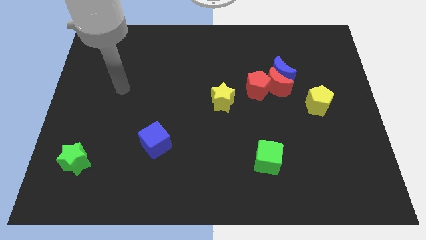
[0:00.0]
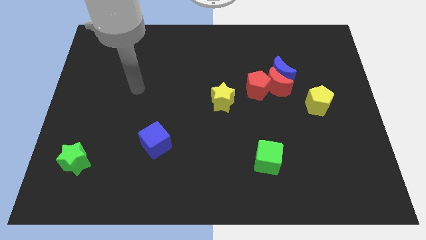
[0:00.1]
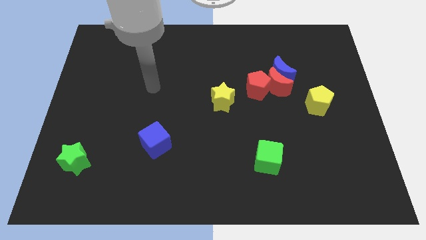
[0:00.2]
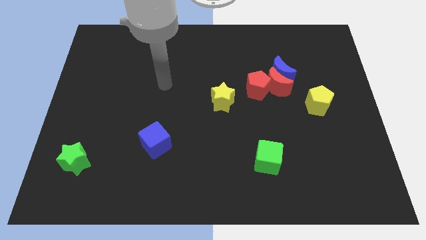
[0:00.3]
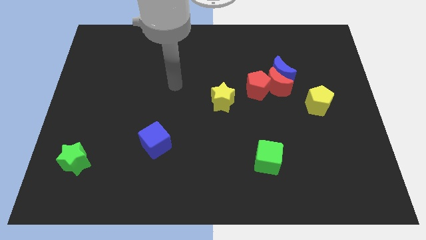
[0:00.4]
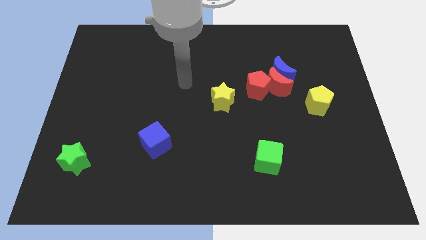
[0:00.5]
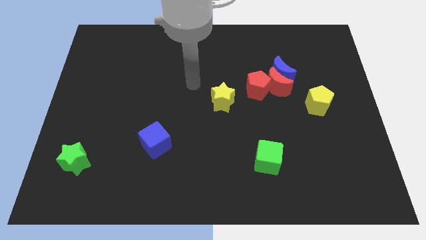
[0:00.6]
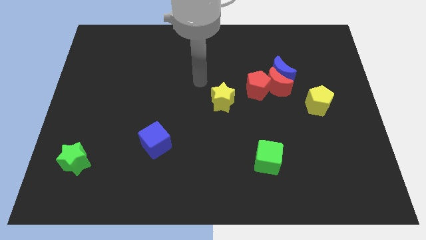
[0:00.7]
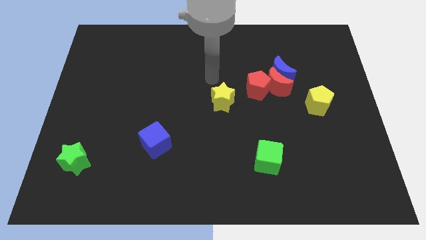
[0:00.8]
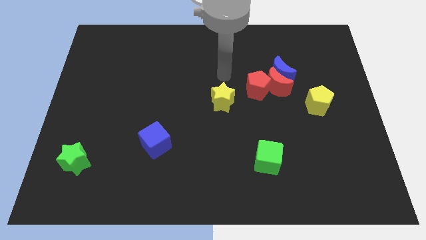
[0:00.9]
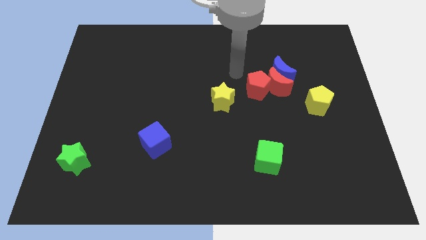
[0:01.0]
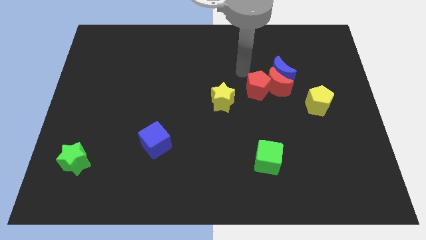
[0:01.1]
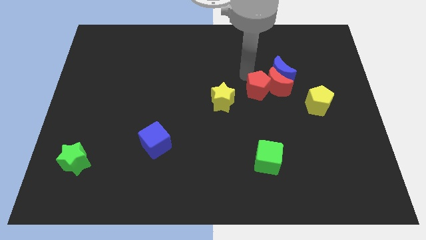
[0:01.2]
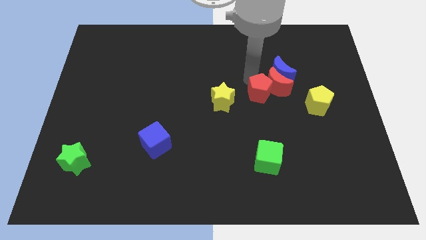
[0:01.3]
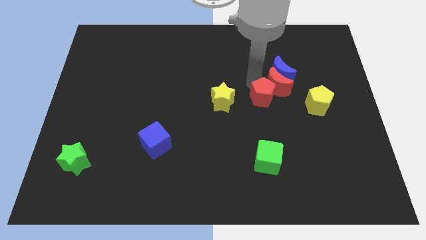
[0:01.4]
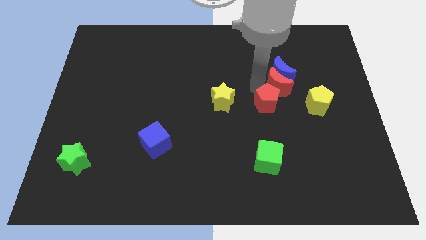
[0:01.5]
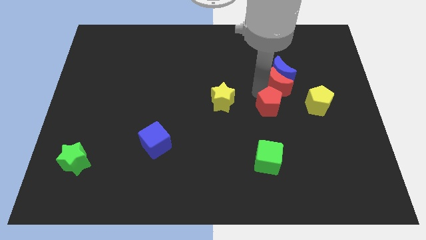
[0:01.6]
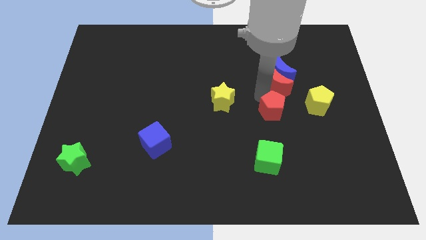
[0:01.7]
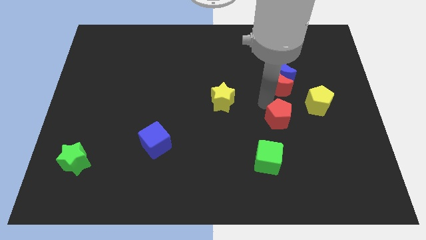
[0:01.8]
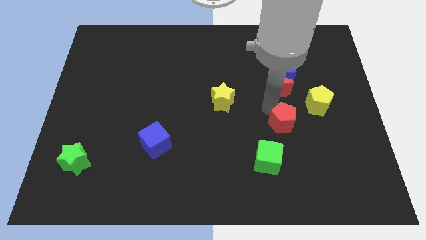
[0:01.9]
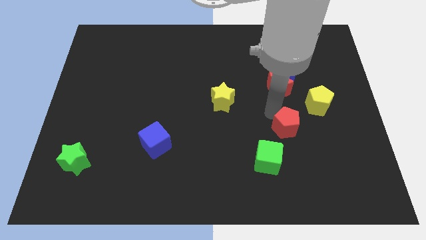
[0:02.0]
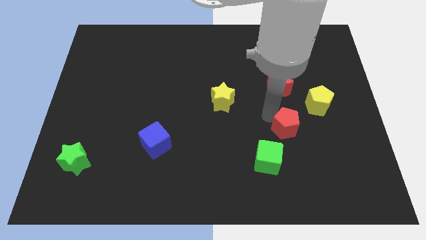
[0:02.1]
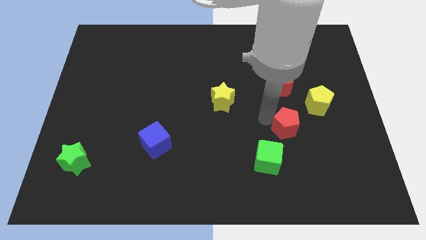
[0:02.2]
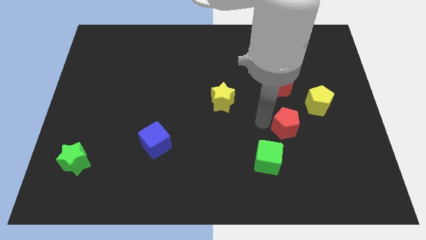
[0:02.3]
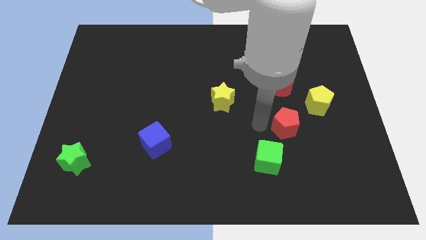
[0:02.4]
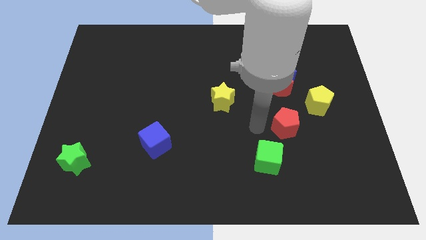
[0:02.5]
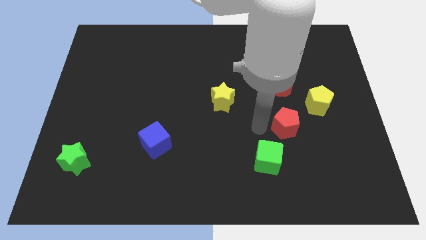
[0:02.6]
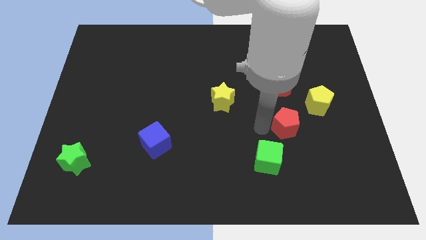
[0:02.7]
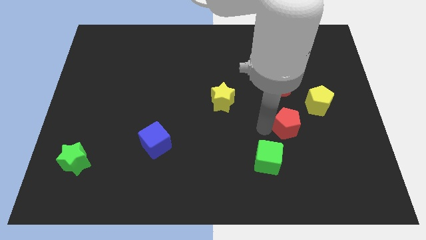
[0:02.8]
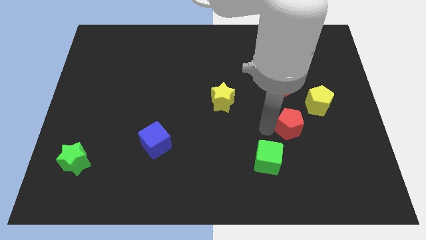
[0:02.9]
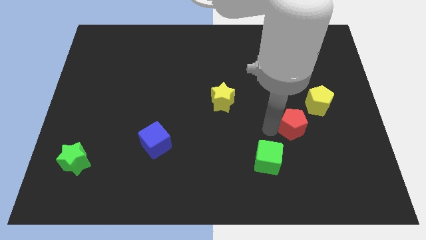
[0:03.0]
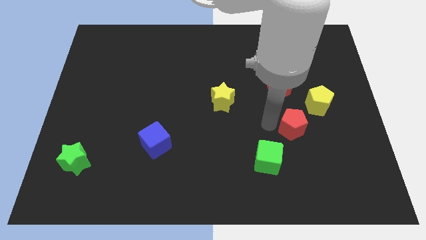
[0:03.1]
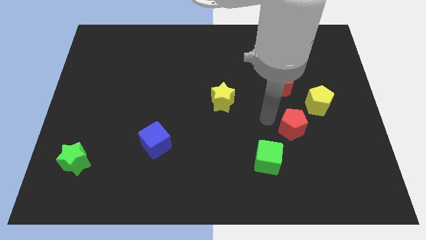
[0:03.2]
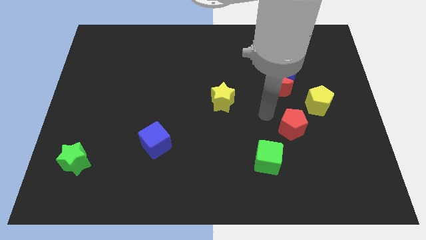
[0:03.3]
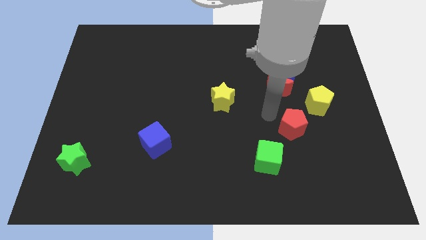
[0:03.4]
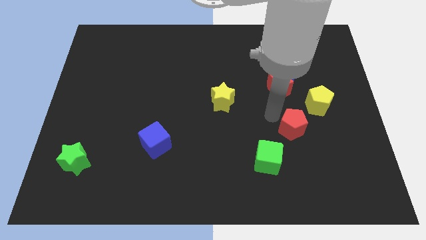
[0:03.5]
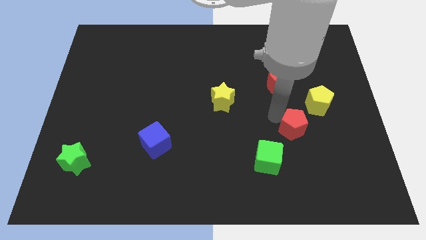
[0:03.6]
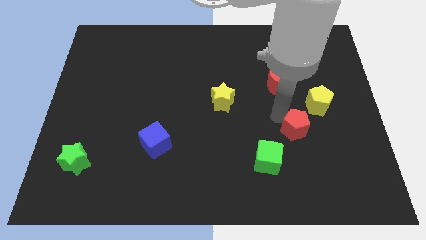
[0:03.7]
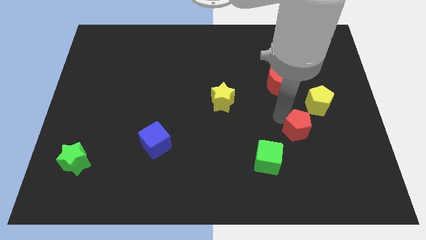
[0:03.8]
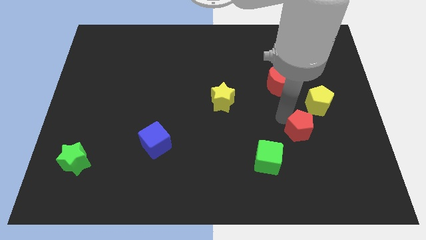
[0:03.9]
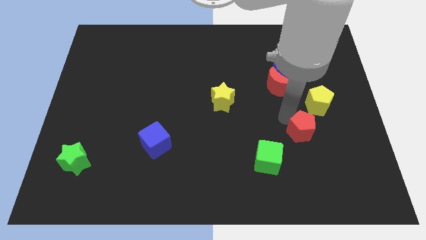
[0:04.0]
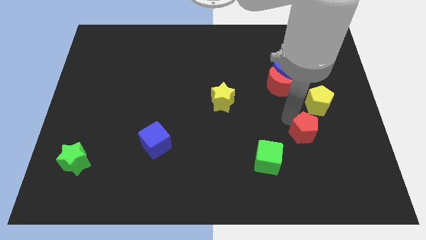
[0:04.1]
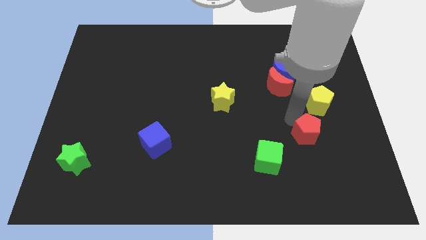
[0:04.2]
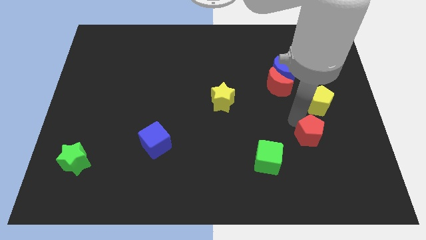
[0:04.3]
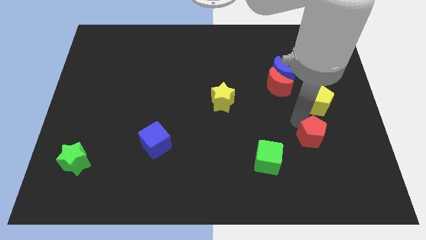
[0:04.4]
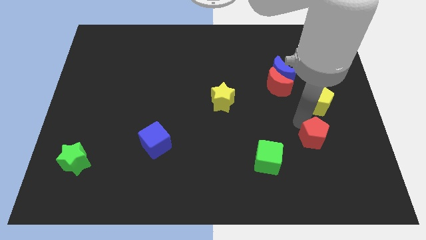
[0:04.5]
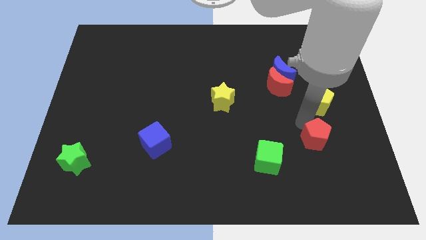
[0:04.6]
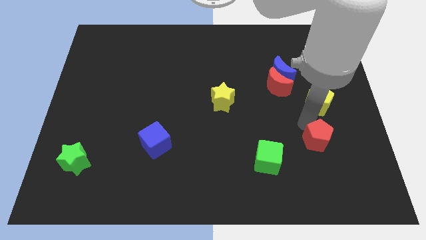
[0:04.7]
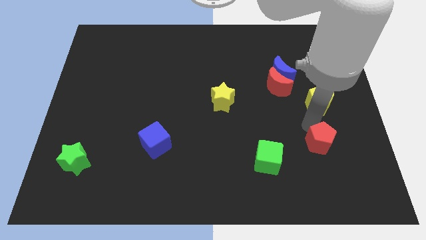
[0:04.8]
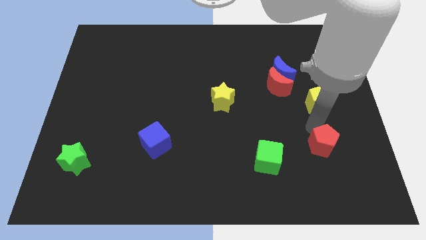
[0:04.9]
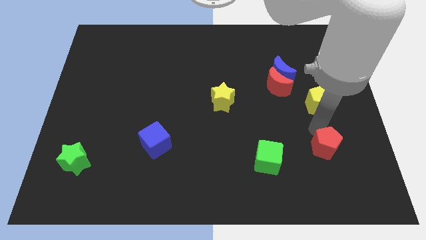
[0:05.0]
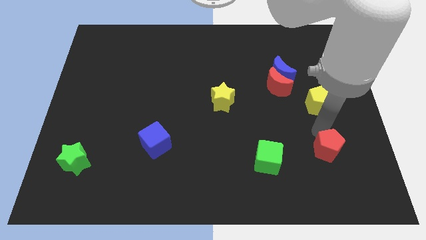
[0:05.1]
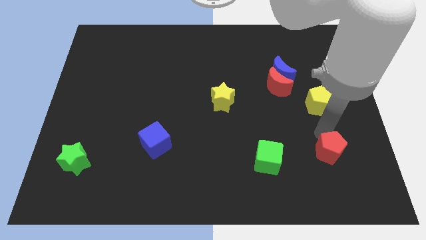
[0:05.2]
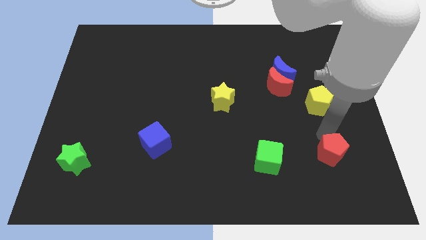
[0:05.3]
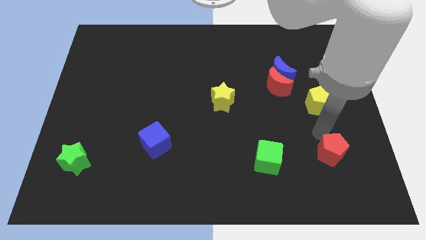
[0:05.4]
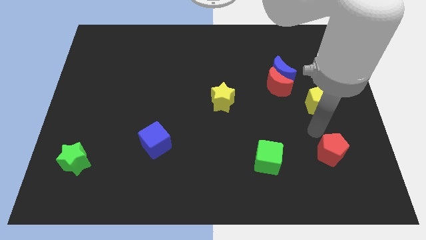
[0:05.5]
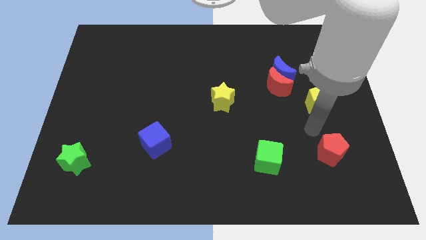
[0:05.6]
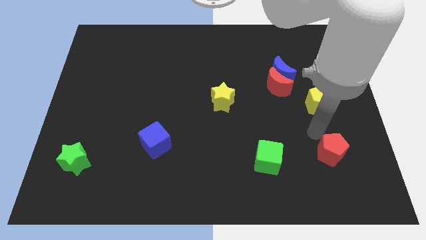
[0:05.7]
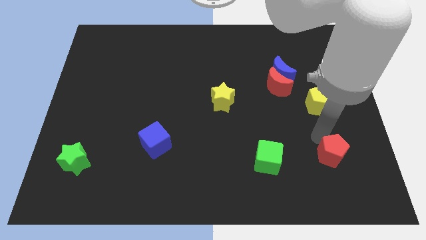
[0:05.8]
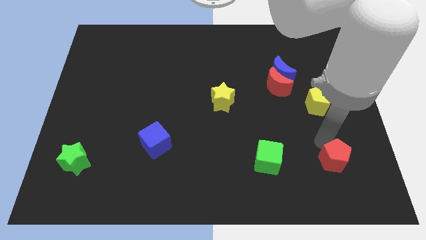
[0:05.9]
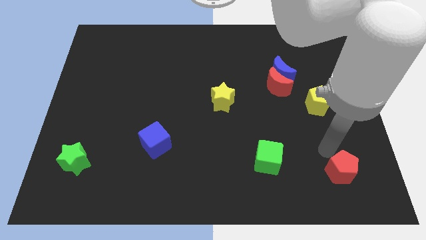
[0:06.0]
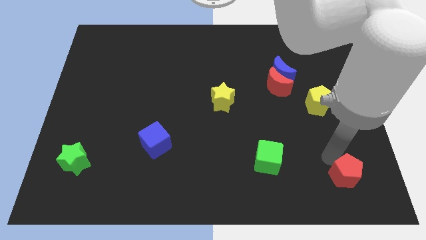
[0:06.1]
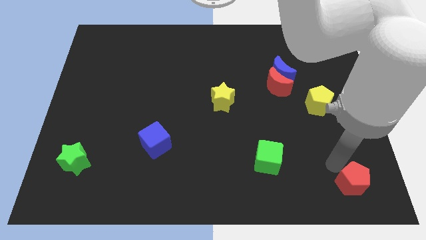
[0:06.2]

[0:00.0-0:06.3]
slide the red pentagon to the bottom right

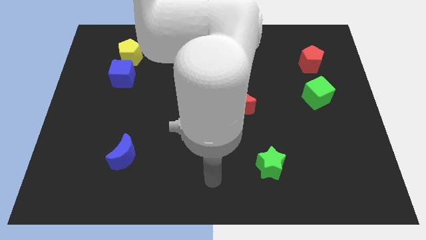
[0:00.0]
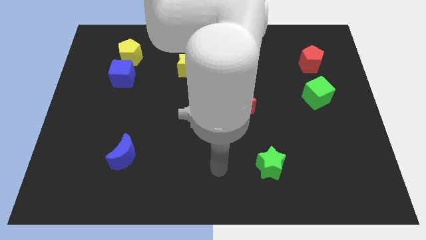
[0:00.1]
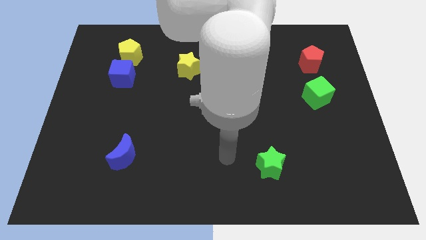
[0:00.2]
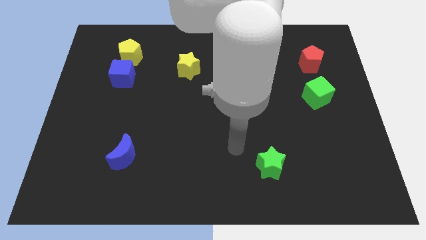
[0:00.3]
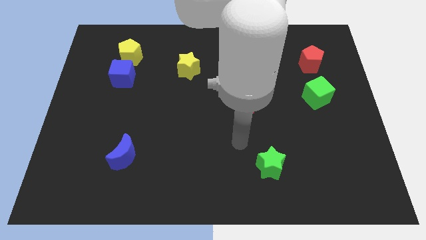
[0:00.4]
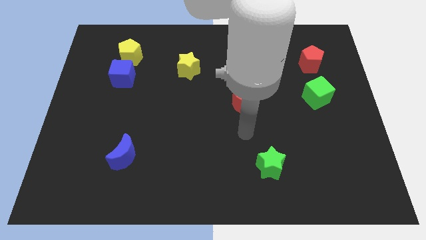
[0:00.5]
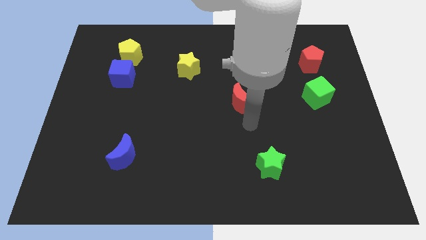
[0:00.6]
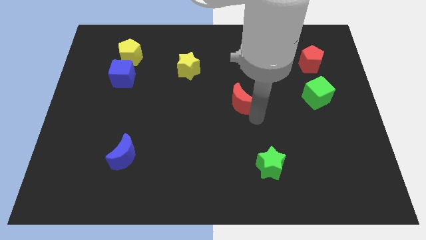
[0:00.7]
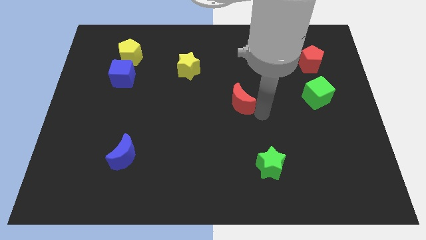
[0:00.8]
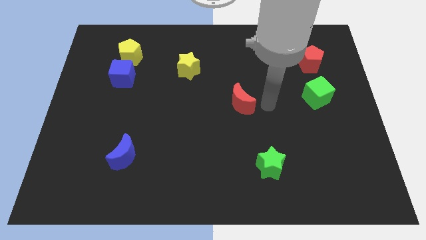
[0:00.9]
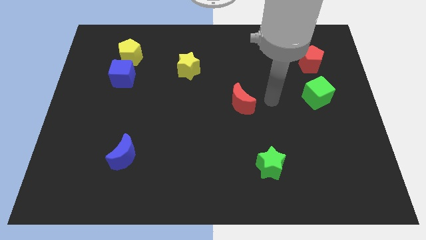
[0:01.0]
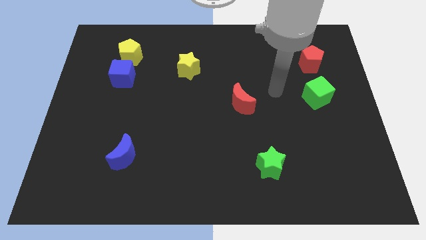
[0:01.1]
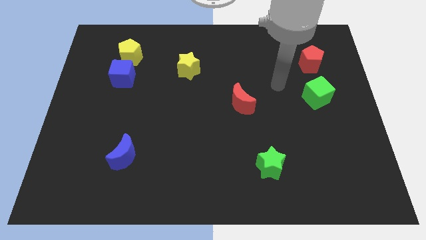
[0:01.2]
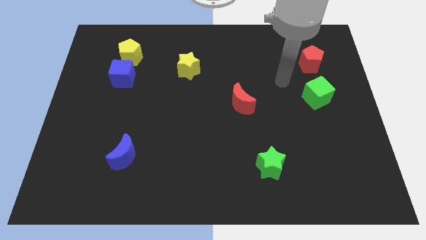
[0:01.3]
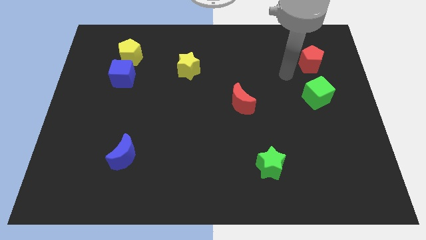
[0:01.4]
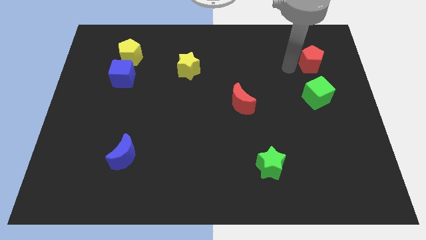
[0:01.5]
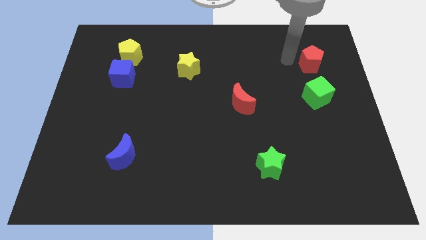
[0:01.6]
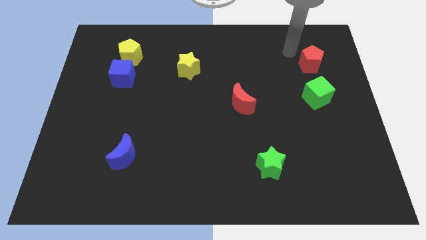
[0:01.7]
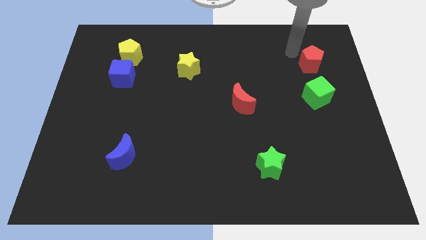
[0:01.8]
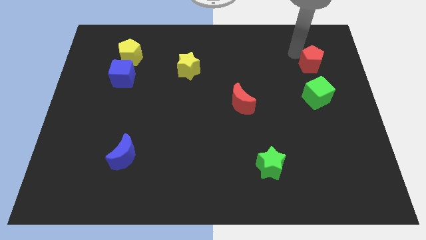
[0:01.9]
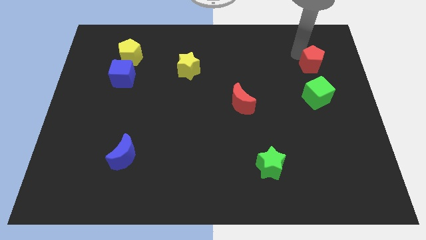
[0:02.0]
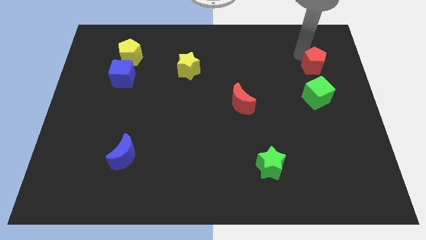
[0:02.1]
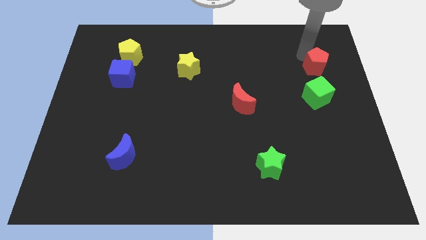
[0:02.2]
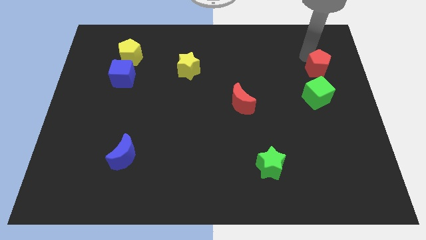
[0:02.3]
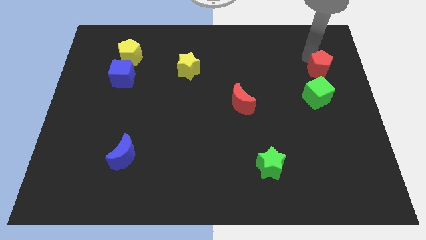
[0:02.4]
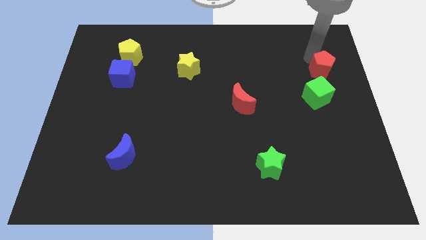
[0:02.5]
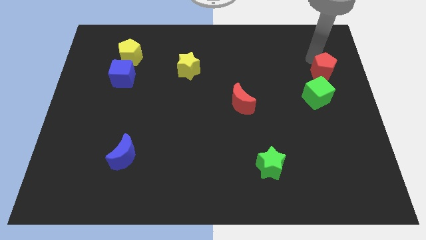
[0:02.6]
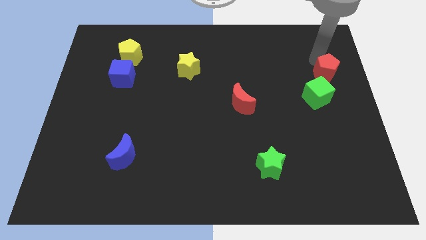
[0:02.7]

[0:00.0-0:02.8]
slide the red pentagon to the right side of the board
